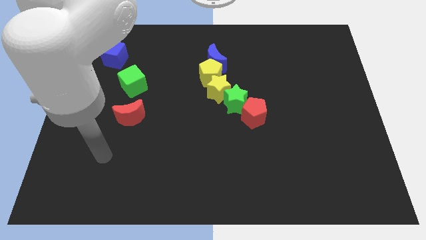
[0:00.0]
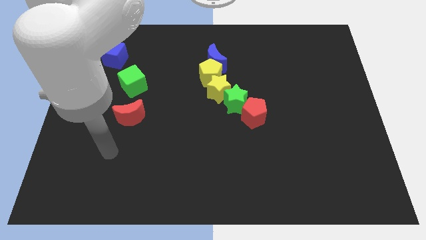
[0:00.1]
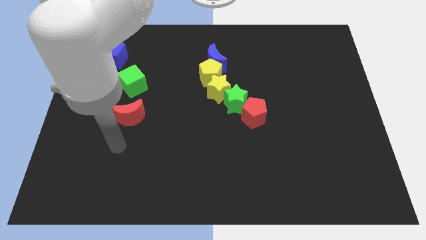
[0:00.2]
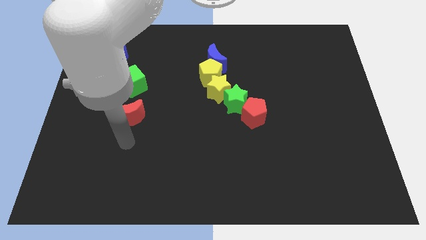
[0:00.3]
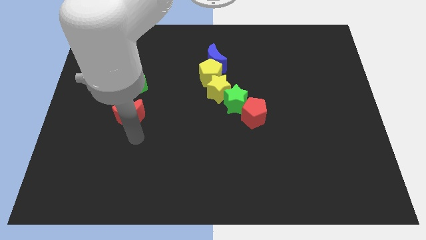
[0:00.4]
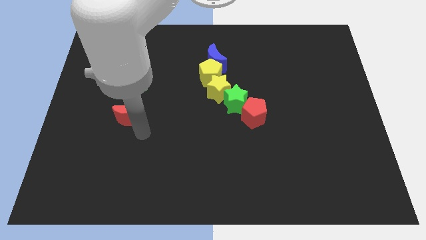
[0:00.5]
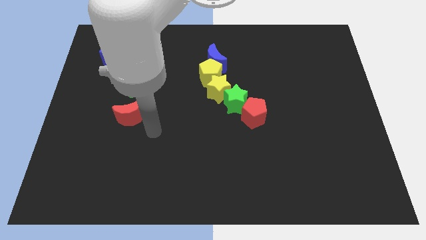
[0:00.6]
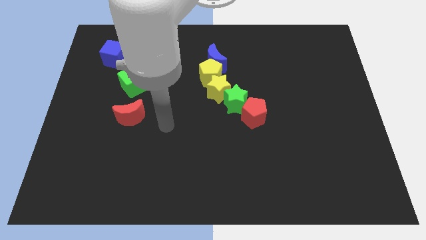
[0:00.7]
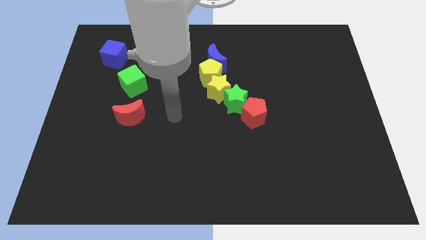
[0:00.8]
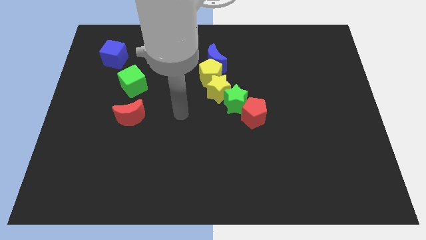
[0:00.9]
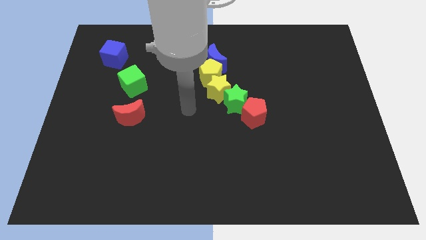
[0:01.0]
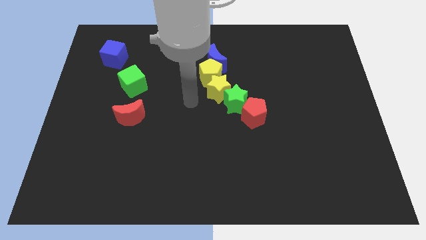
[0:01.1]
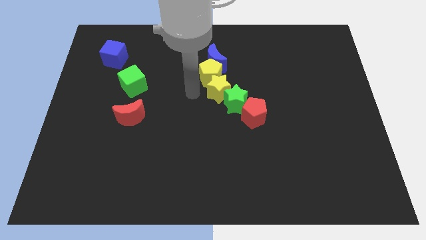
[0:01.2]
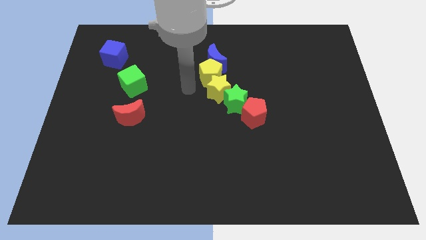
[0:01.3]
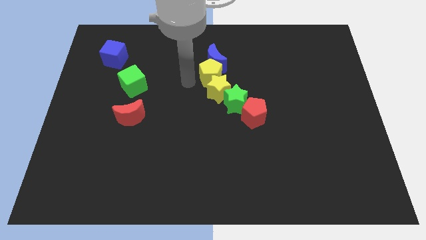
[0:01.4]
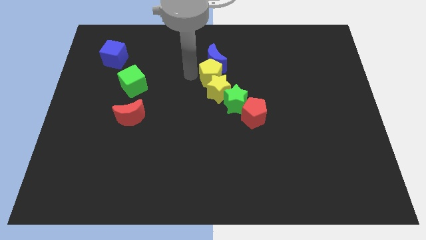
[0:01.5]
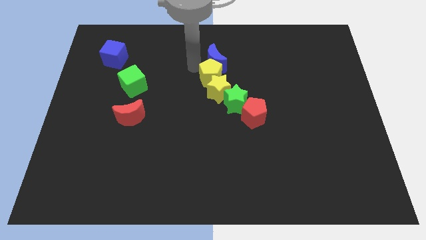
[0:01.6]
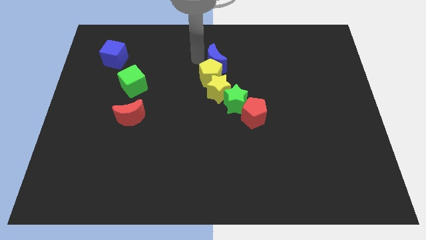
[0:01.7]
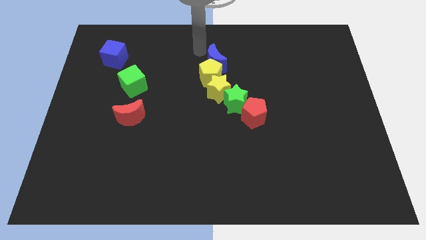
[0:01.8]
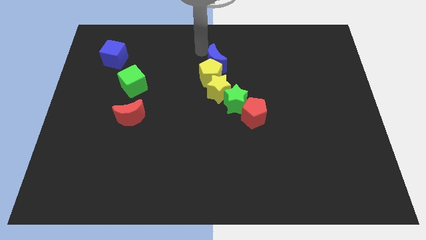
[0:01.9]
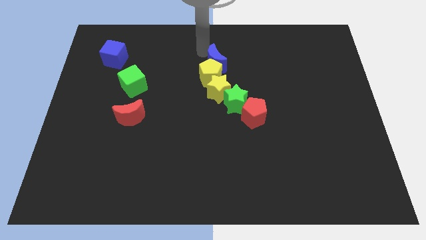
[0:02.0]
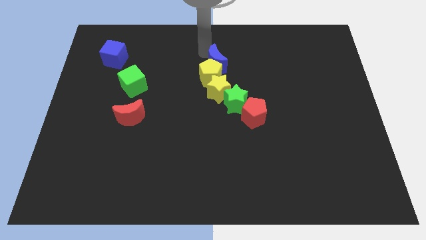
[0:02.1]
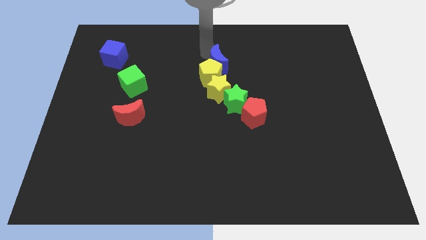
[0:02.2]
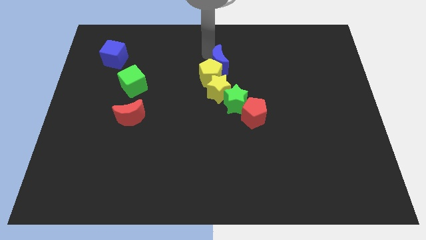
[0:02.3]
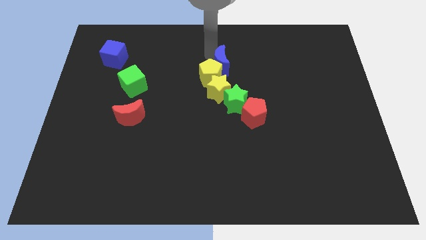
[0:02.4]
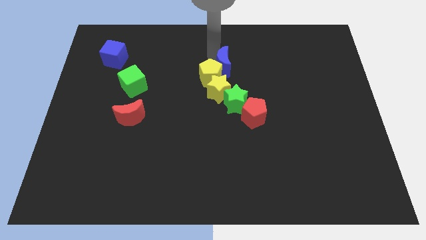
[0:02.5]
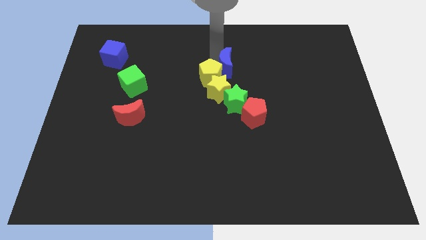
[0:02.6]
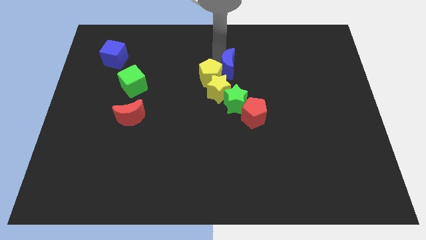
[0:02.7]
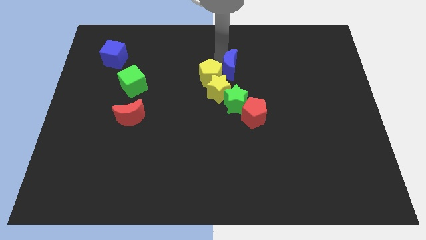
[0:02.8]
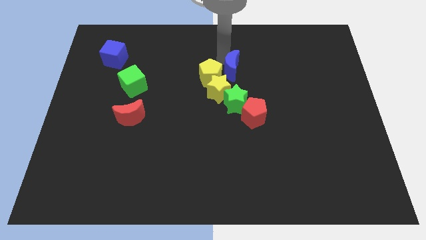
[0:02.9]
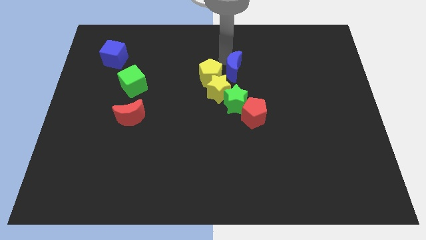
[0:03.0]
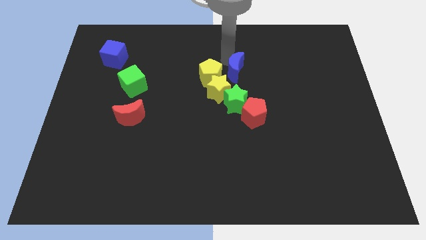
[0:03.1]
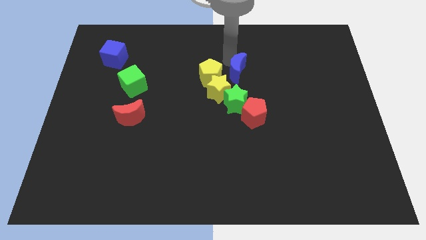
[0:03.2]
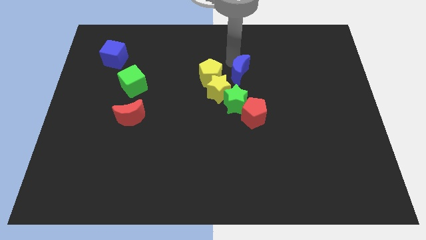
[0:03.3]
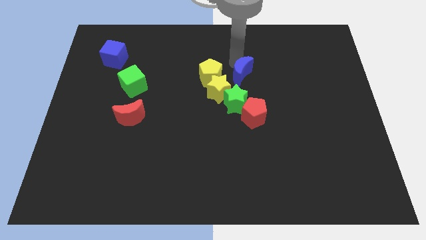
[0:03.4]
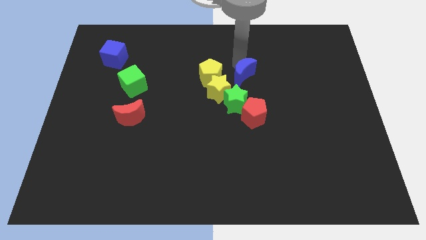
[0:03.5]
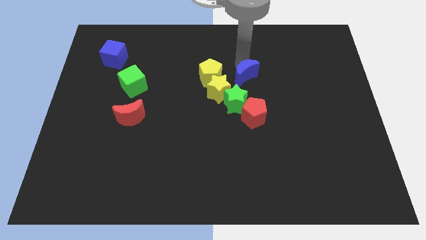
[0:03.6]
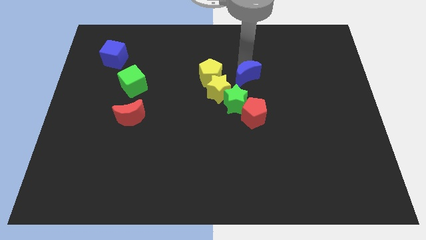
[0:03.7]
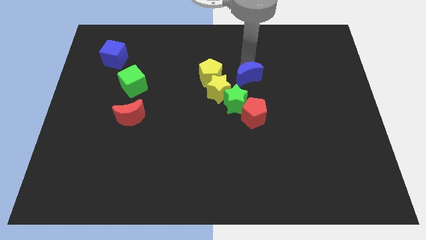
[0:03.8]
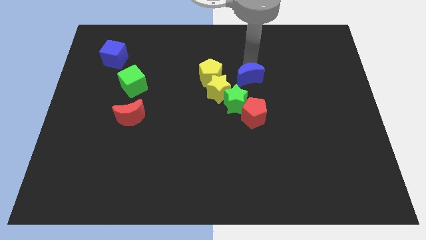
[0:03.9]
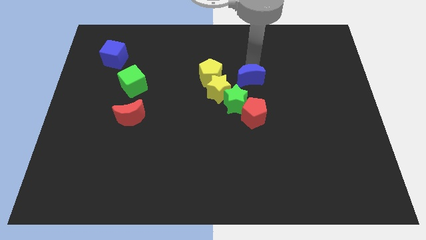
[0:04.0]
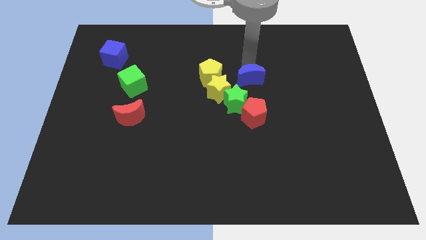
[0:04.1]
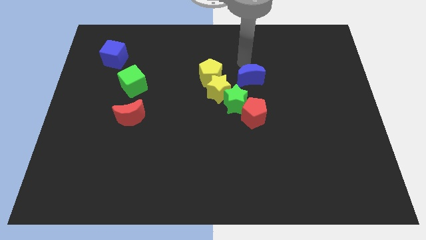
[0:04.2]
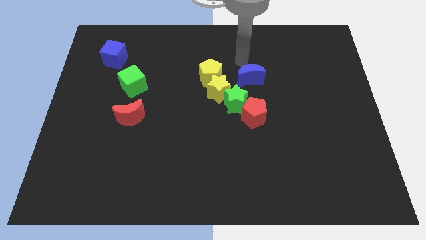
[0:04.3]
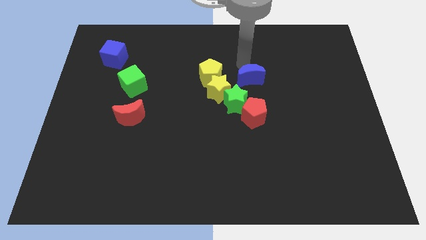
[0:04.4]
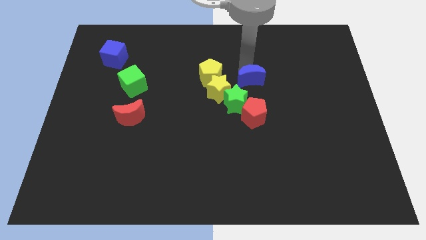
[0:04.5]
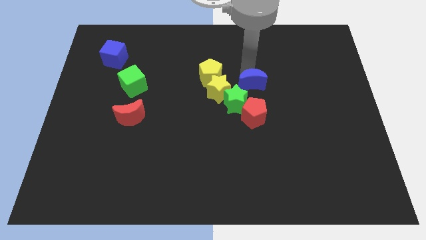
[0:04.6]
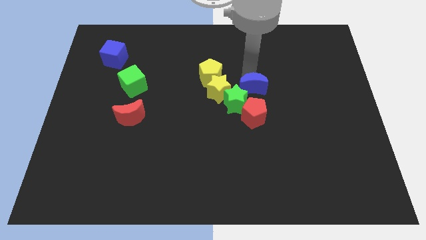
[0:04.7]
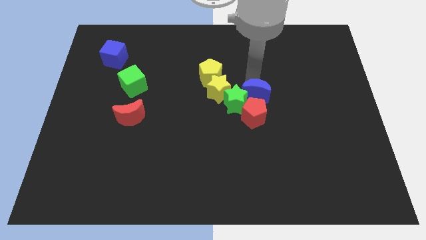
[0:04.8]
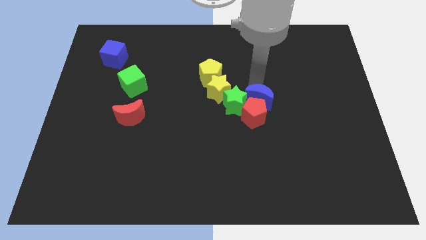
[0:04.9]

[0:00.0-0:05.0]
slide the blue moon next to the red pentagon

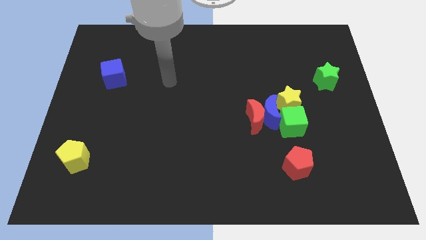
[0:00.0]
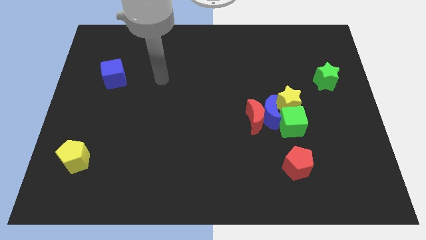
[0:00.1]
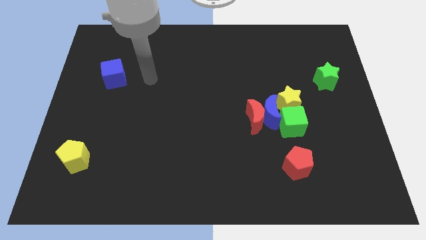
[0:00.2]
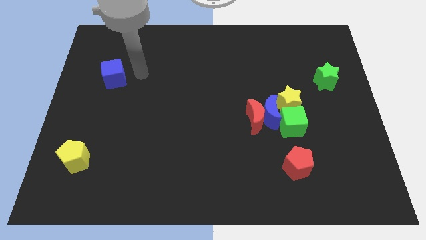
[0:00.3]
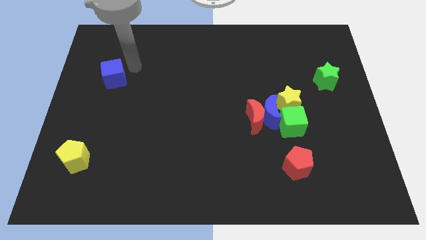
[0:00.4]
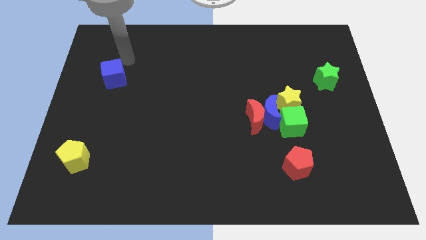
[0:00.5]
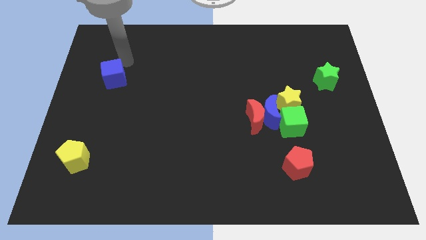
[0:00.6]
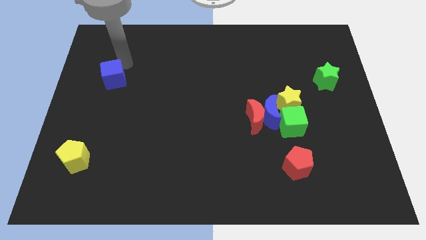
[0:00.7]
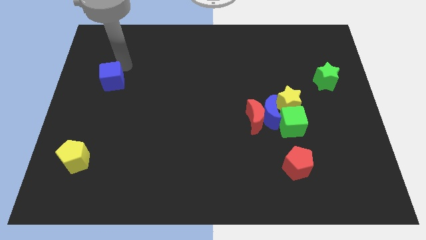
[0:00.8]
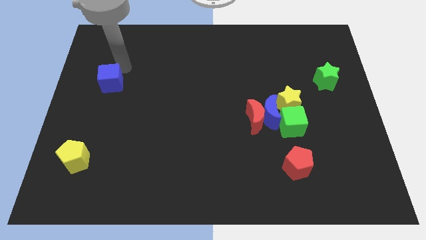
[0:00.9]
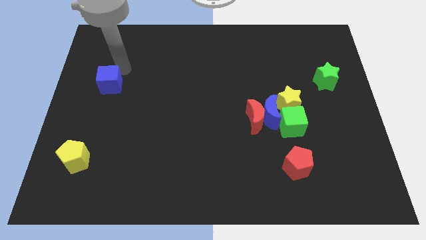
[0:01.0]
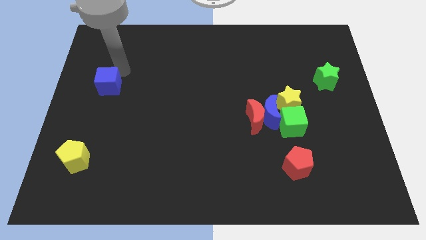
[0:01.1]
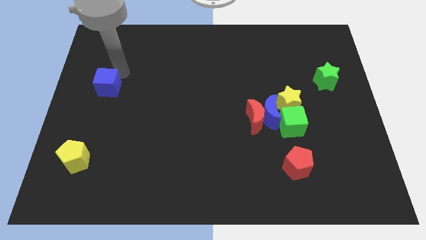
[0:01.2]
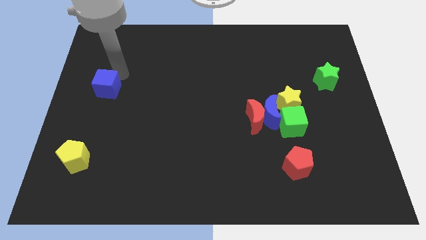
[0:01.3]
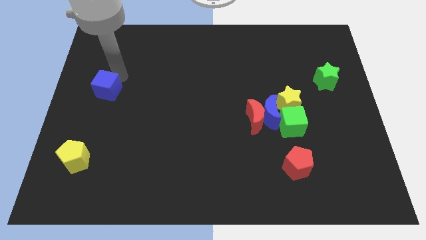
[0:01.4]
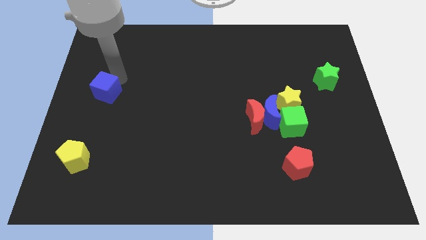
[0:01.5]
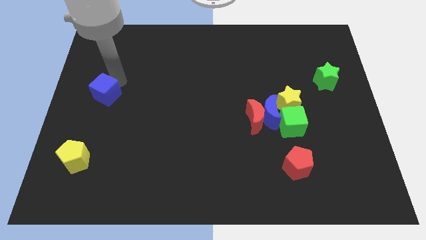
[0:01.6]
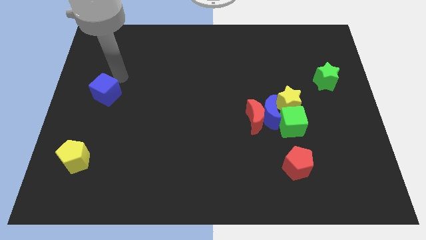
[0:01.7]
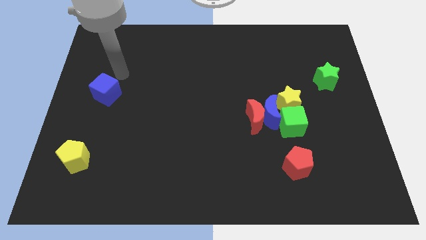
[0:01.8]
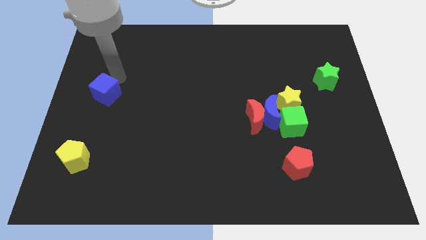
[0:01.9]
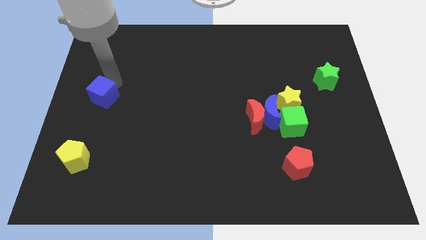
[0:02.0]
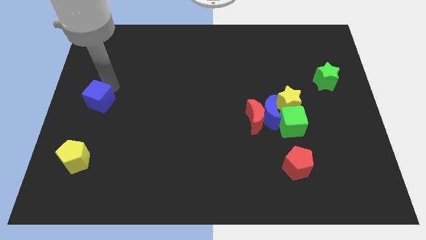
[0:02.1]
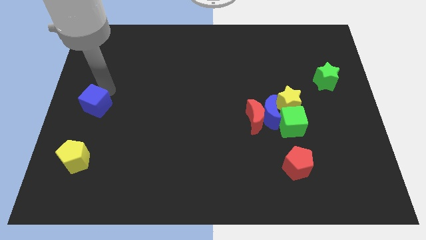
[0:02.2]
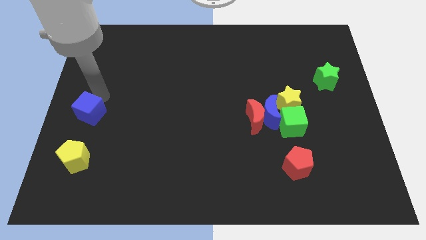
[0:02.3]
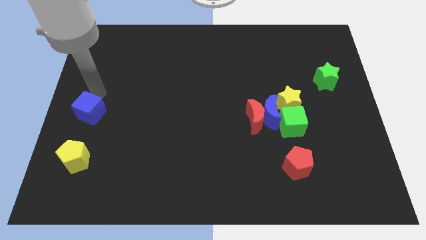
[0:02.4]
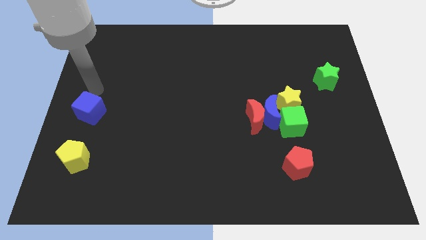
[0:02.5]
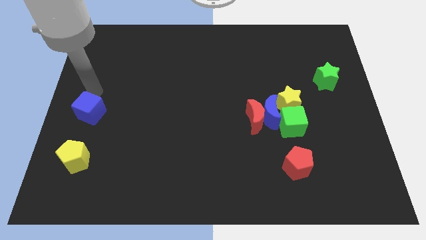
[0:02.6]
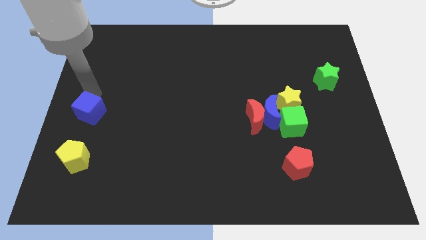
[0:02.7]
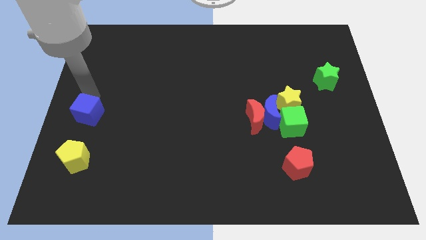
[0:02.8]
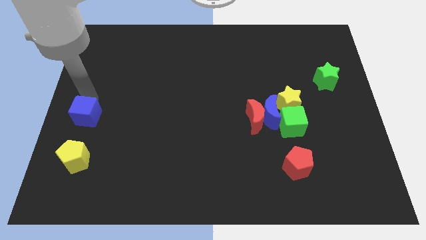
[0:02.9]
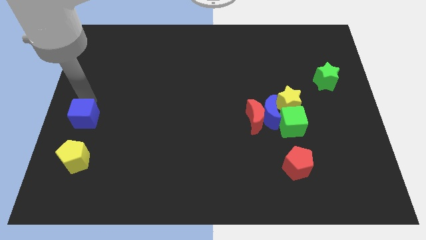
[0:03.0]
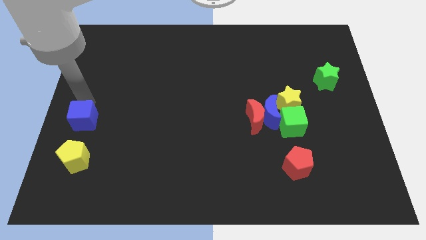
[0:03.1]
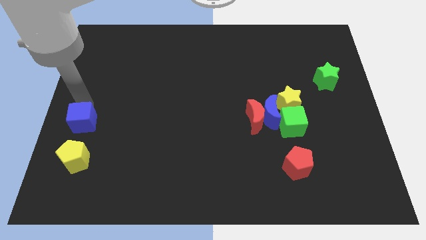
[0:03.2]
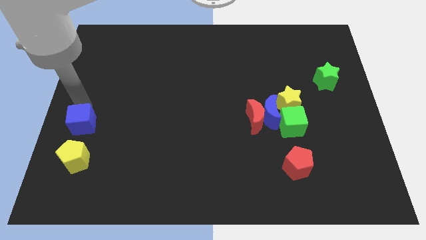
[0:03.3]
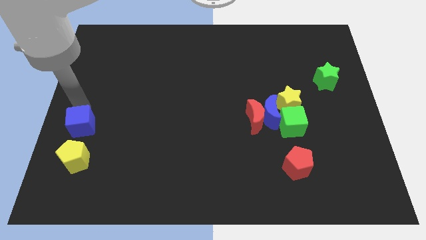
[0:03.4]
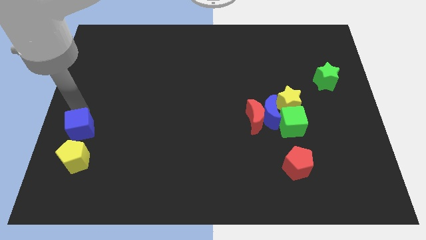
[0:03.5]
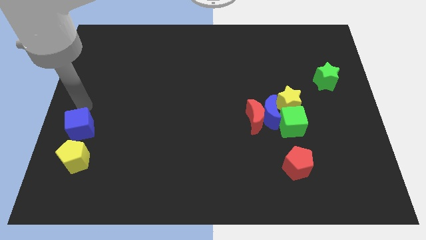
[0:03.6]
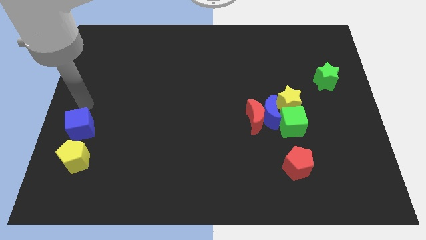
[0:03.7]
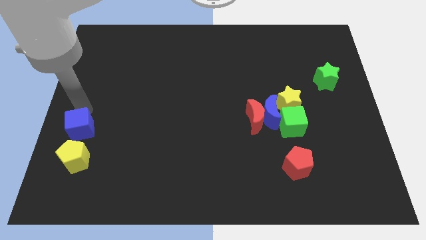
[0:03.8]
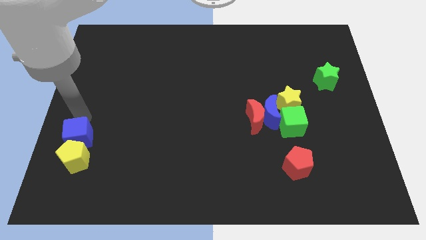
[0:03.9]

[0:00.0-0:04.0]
push the blue cube next to the yellow pentagon
